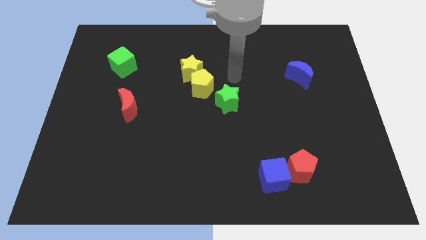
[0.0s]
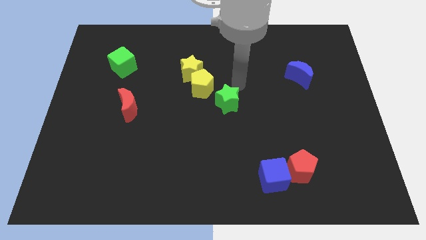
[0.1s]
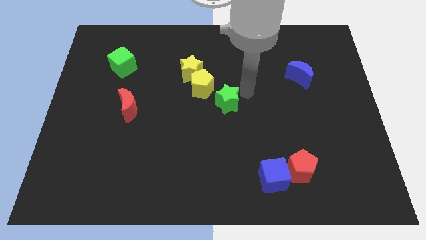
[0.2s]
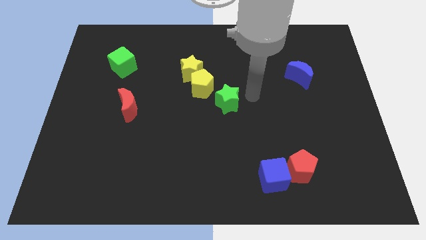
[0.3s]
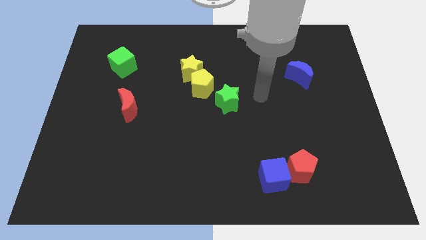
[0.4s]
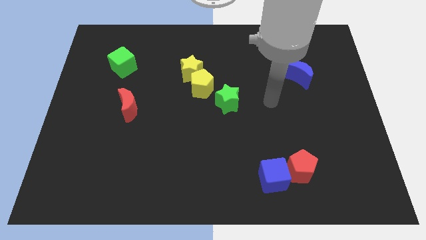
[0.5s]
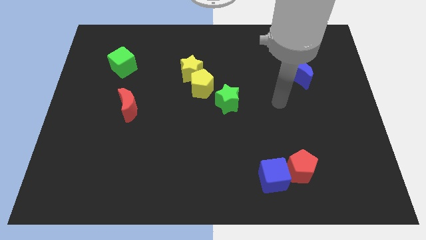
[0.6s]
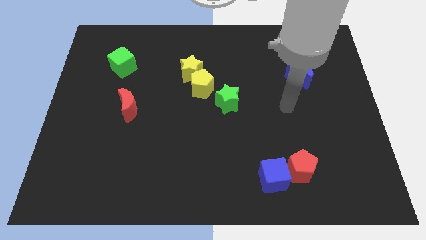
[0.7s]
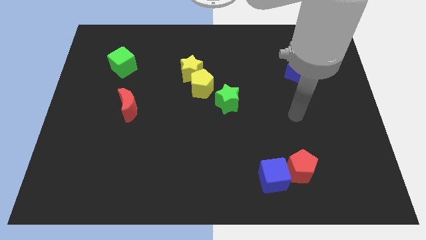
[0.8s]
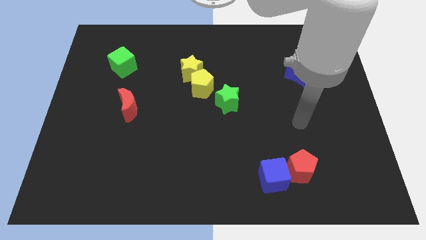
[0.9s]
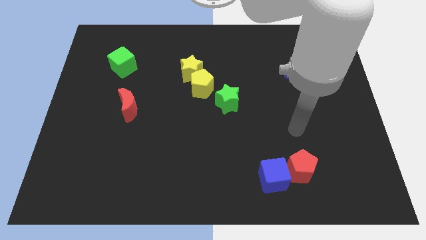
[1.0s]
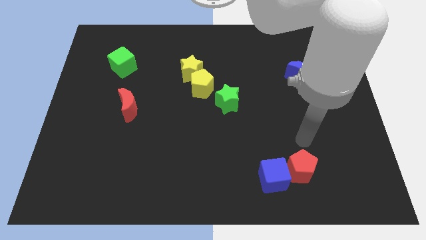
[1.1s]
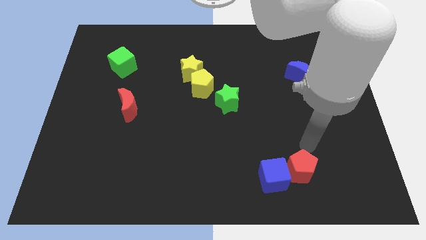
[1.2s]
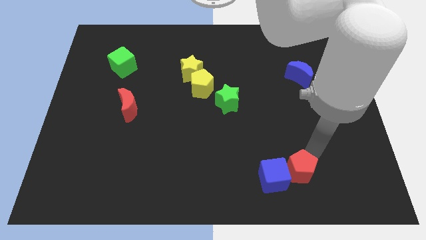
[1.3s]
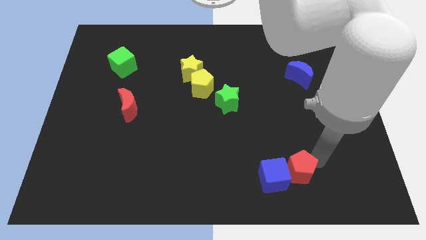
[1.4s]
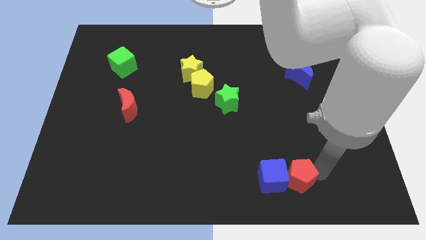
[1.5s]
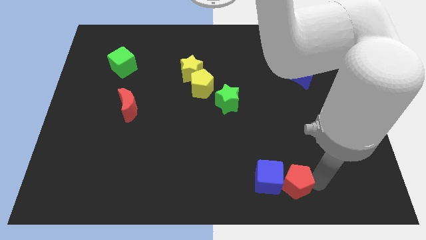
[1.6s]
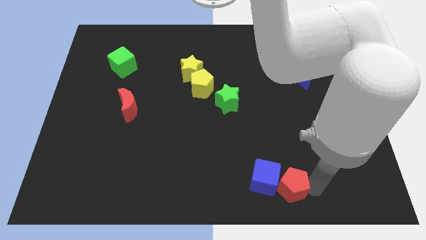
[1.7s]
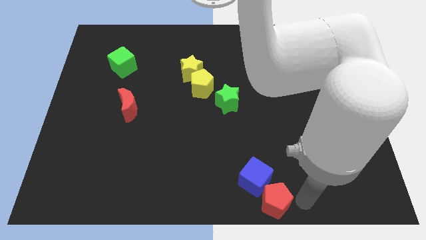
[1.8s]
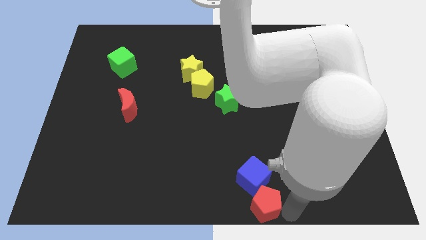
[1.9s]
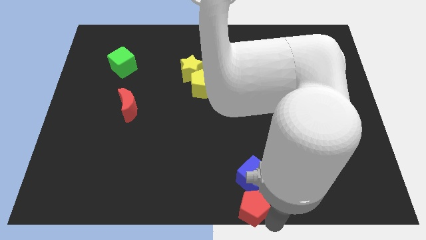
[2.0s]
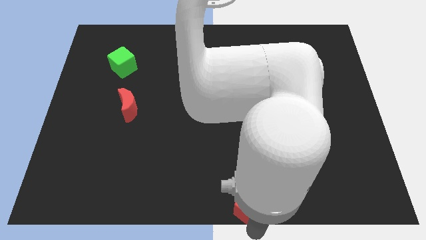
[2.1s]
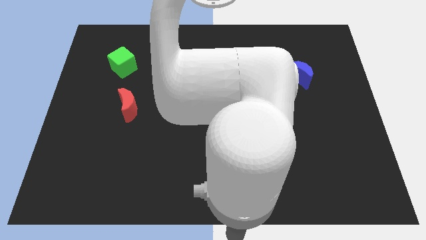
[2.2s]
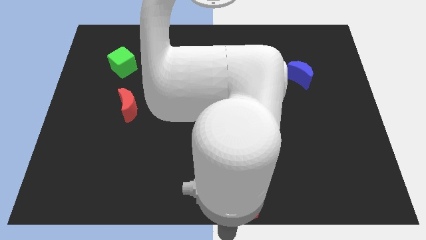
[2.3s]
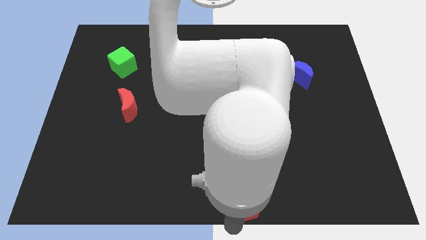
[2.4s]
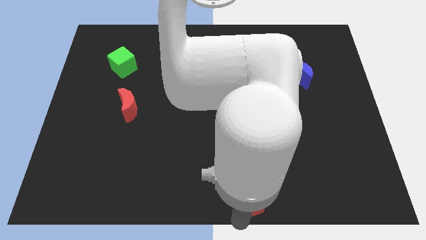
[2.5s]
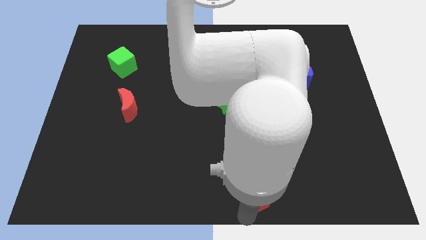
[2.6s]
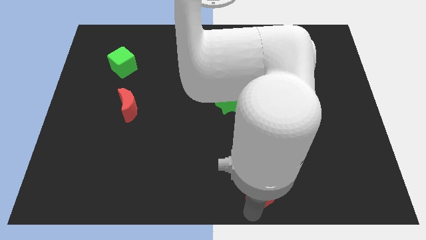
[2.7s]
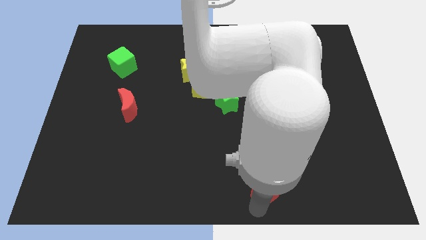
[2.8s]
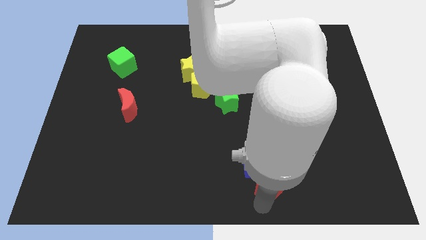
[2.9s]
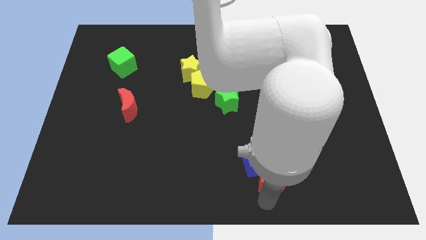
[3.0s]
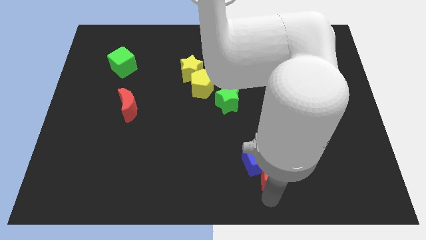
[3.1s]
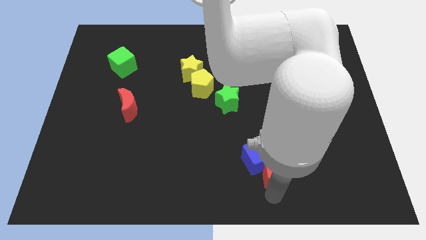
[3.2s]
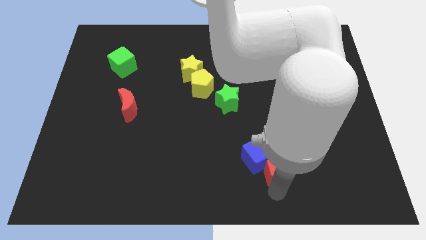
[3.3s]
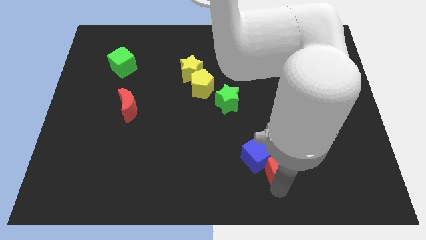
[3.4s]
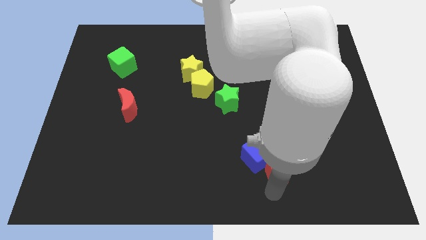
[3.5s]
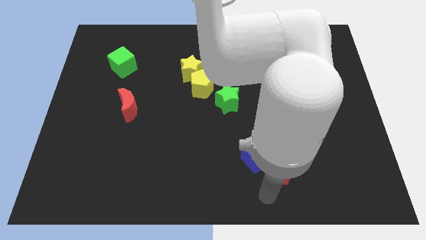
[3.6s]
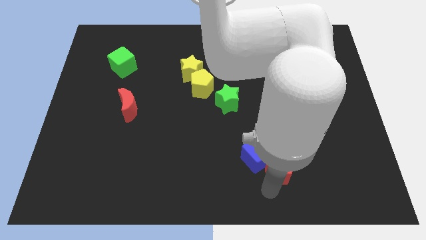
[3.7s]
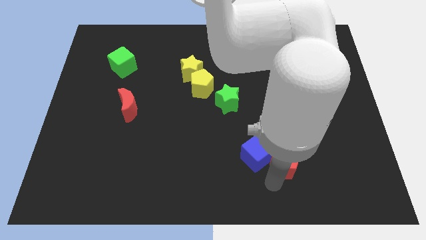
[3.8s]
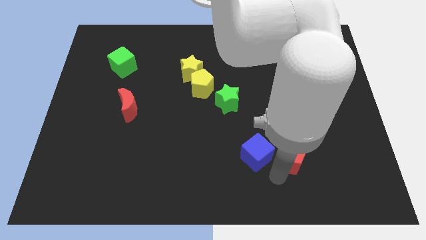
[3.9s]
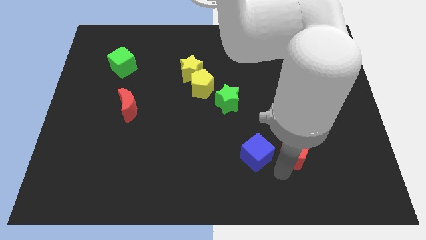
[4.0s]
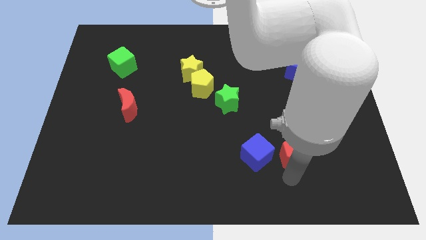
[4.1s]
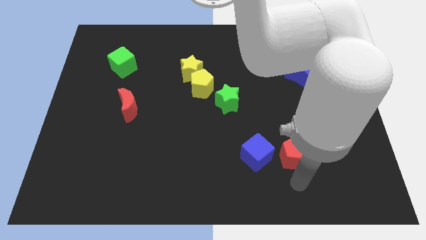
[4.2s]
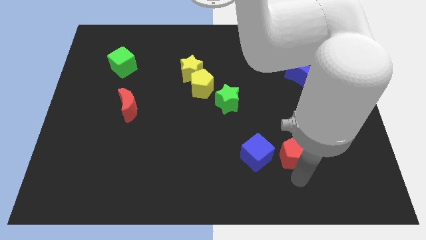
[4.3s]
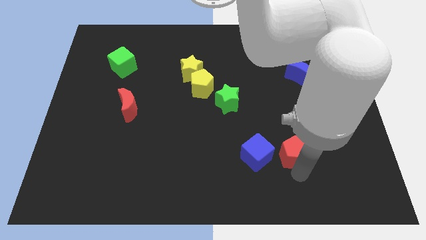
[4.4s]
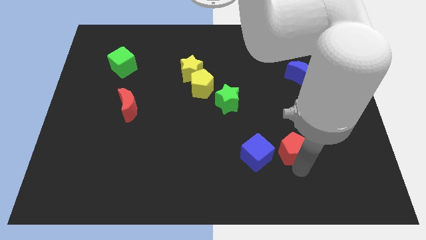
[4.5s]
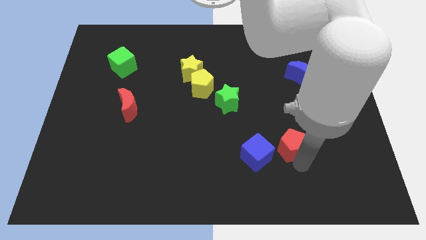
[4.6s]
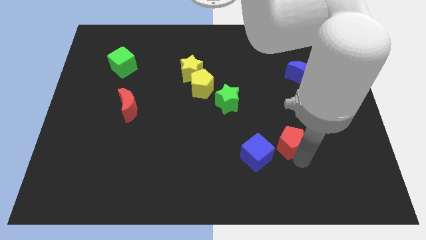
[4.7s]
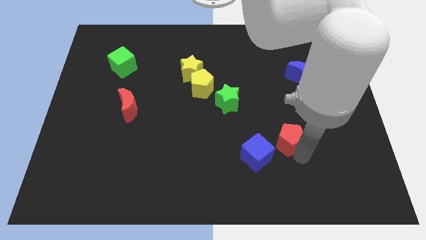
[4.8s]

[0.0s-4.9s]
move the red pentagon up somewhat

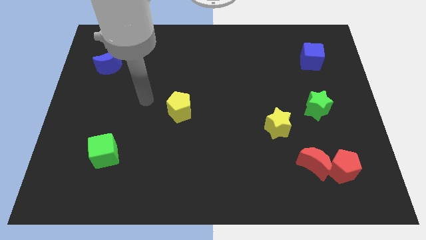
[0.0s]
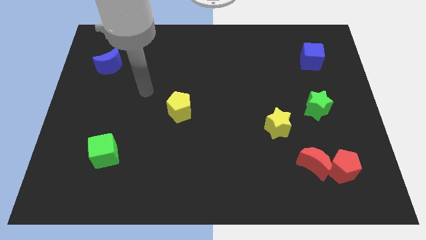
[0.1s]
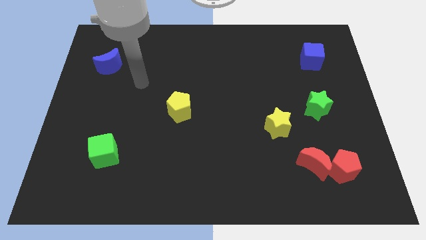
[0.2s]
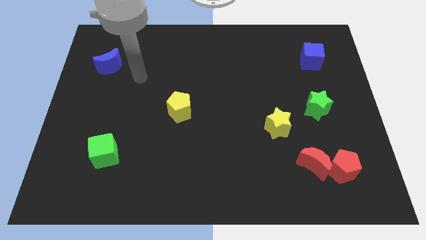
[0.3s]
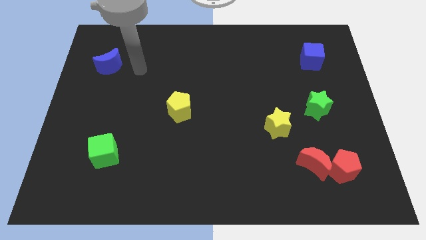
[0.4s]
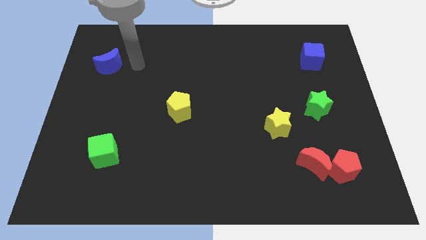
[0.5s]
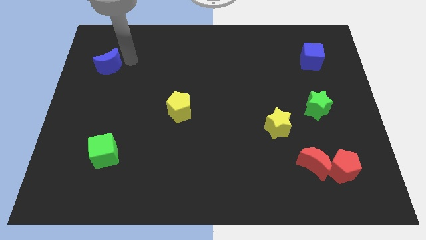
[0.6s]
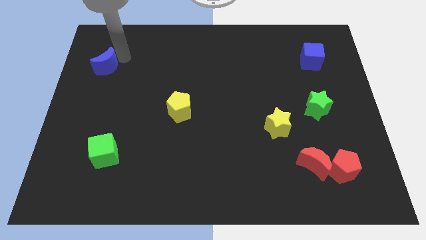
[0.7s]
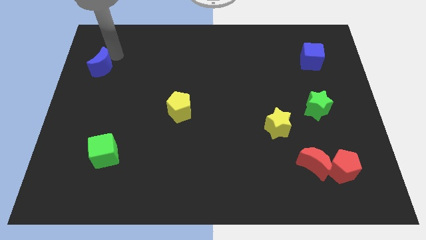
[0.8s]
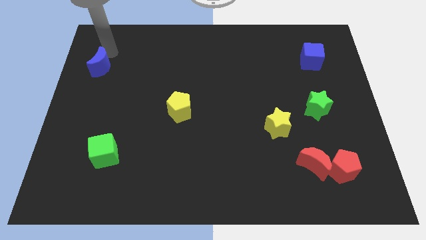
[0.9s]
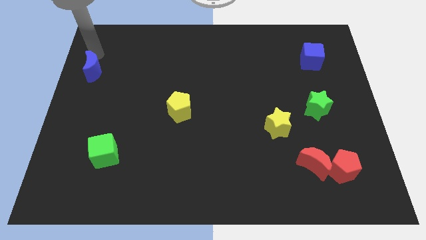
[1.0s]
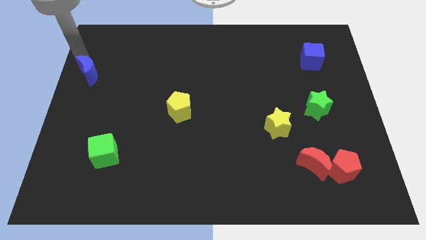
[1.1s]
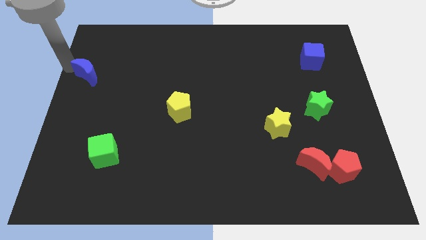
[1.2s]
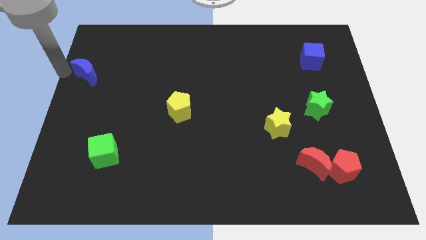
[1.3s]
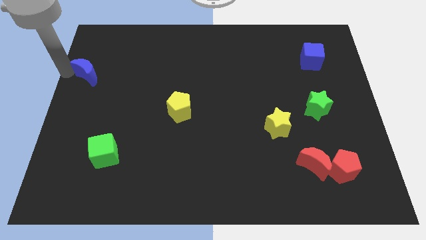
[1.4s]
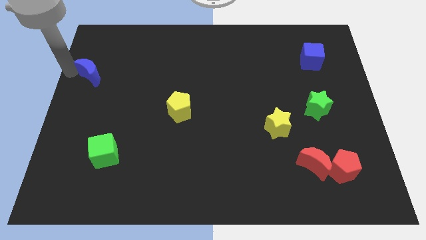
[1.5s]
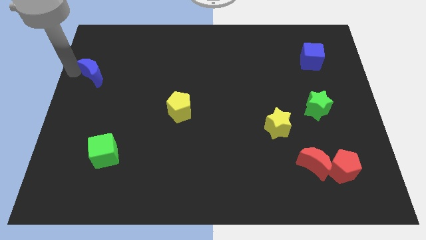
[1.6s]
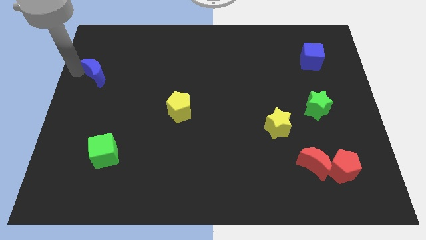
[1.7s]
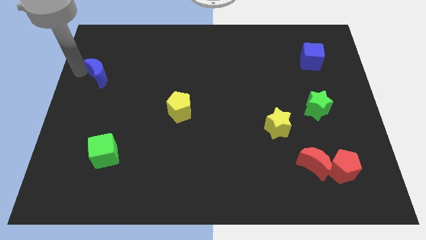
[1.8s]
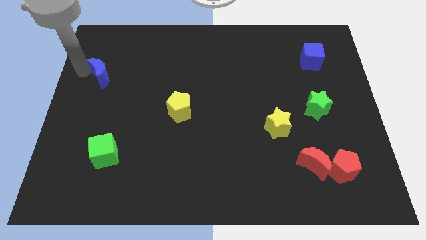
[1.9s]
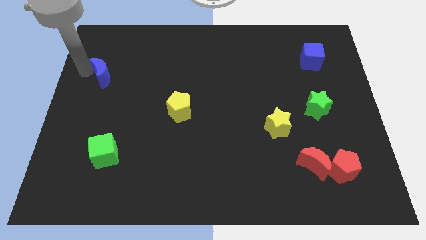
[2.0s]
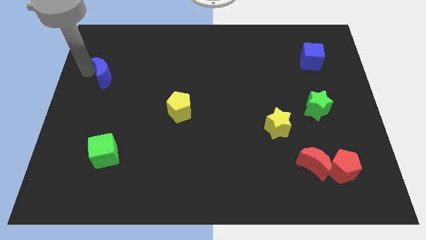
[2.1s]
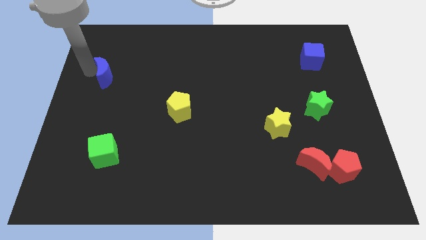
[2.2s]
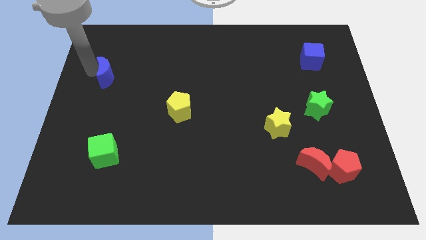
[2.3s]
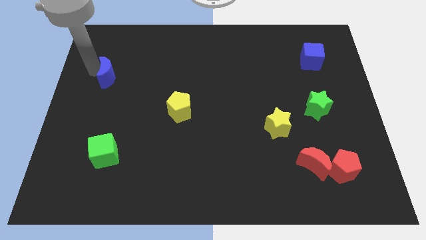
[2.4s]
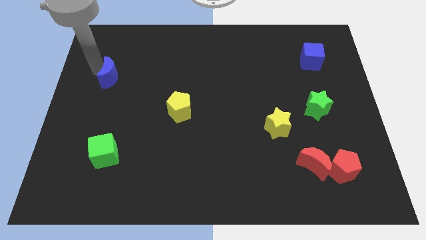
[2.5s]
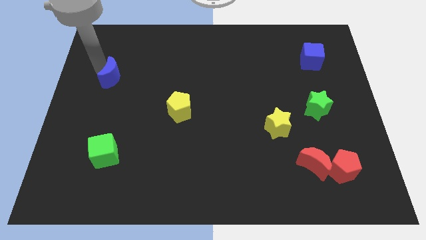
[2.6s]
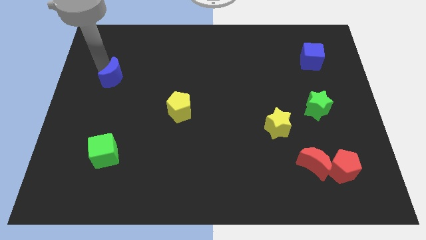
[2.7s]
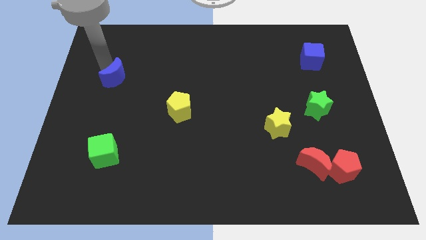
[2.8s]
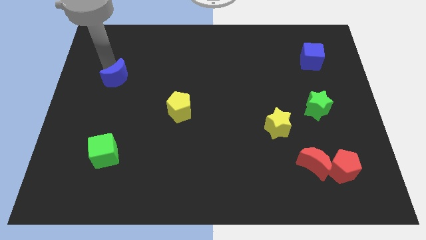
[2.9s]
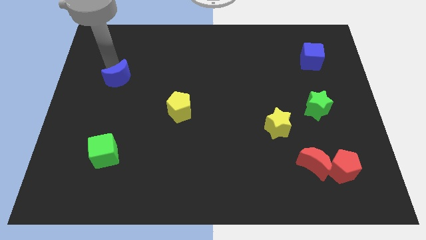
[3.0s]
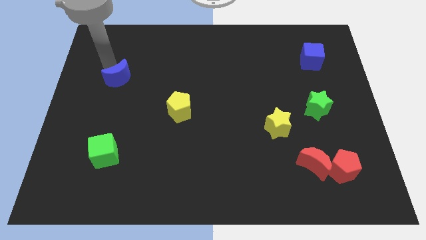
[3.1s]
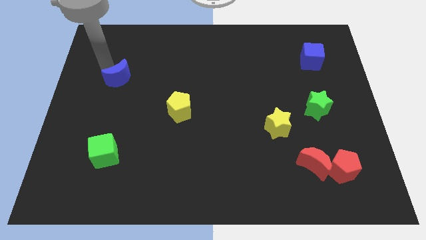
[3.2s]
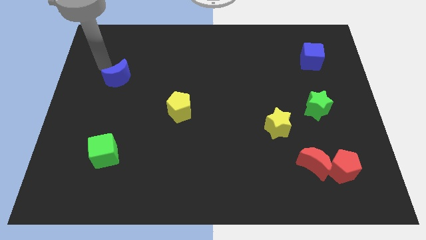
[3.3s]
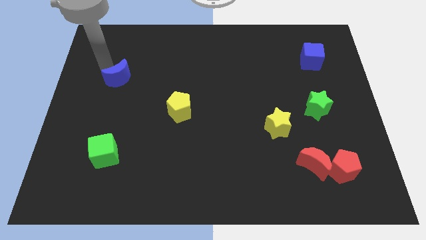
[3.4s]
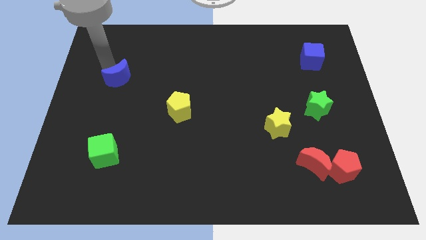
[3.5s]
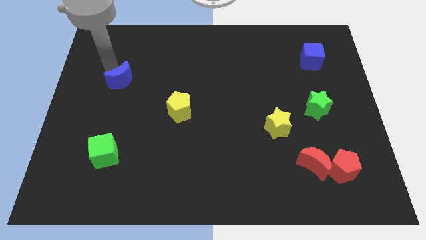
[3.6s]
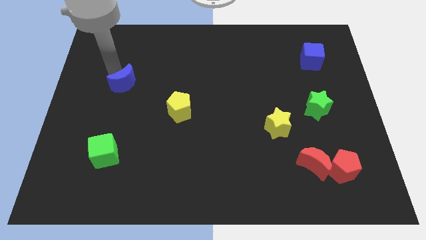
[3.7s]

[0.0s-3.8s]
slightly move the blue moon downwards and right diagonally
